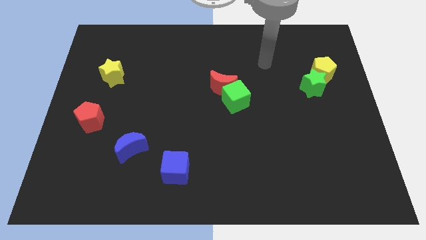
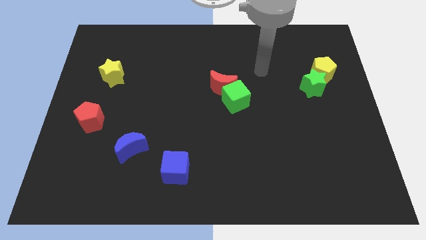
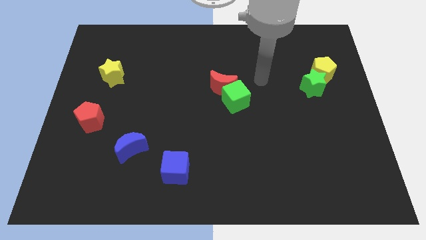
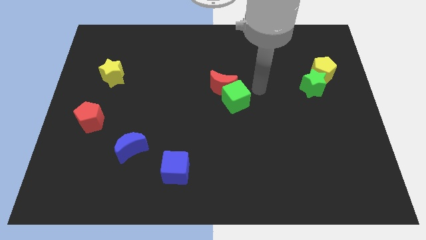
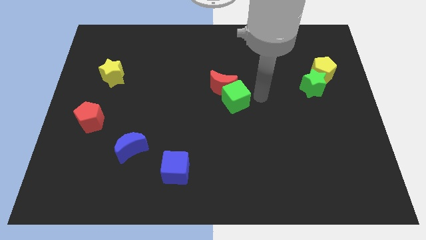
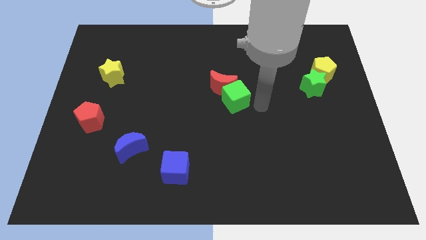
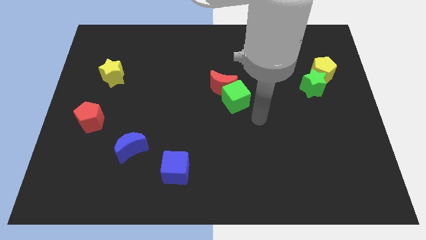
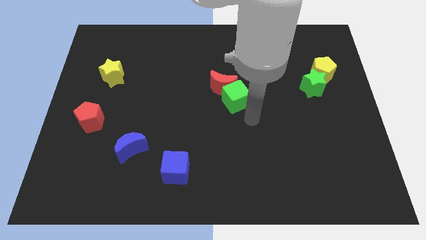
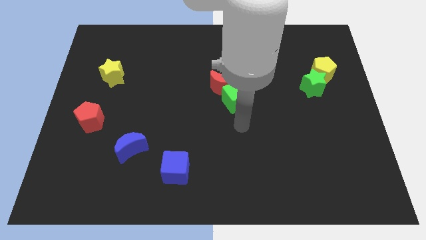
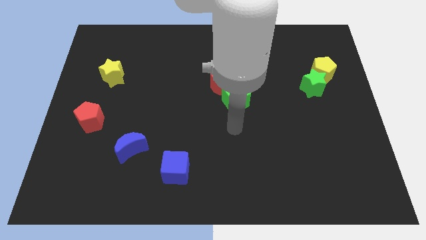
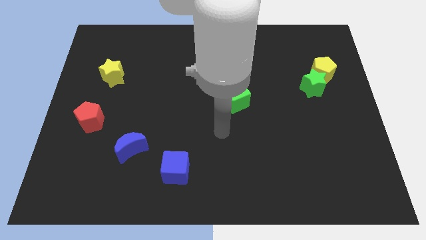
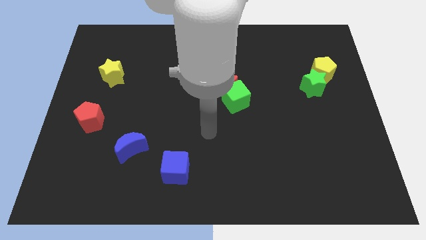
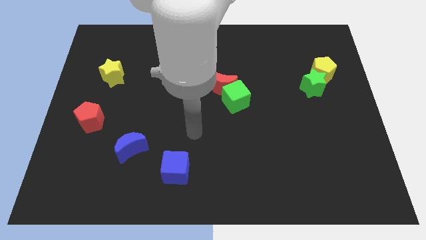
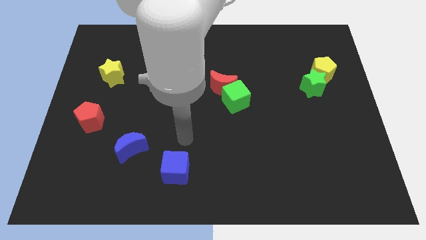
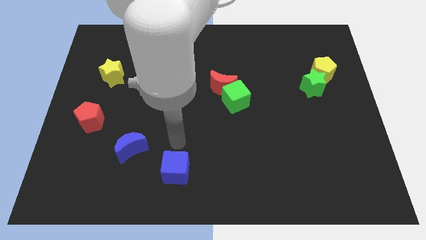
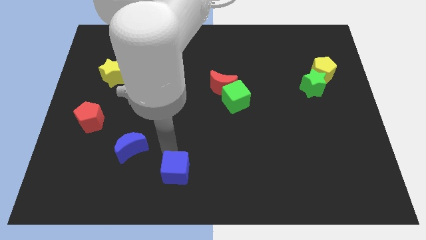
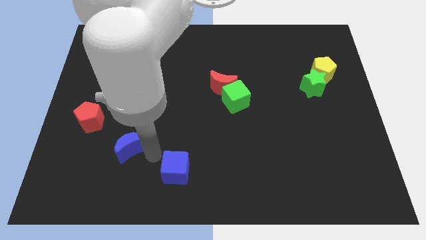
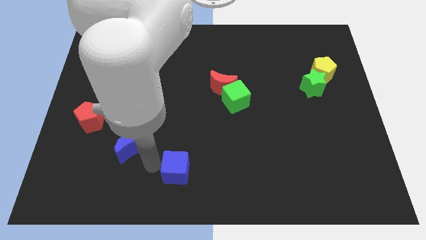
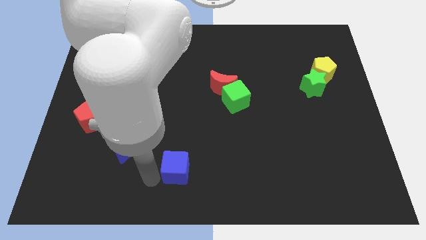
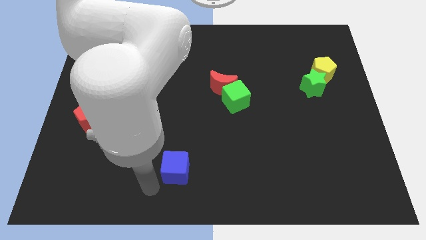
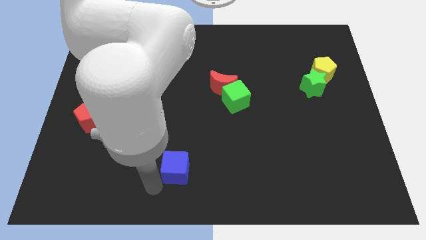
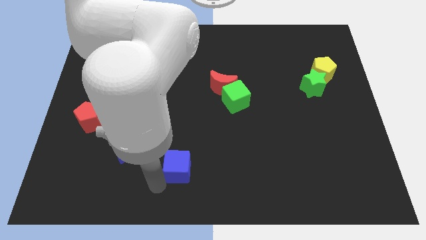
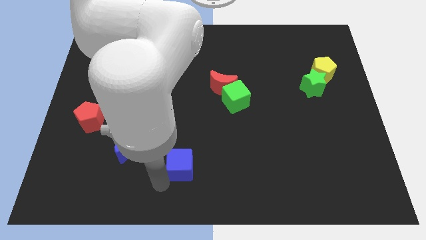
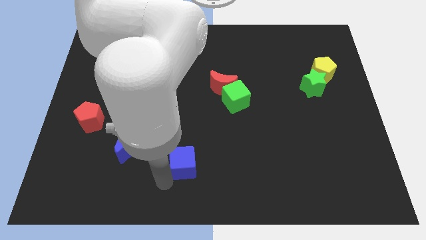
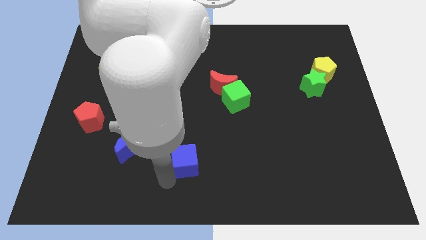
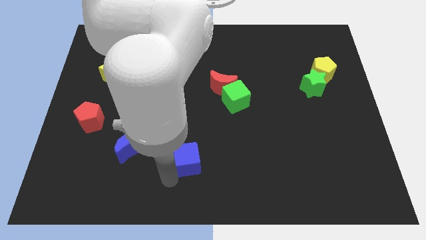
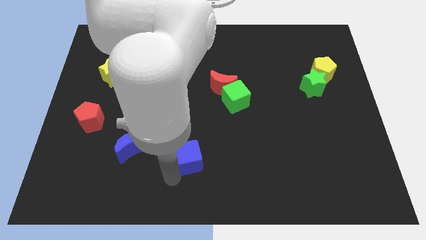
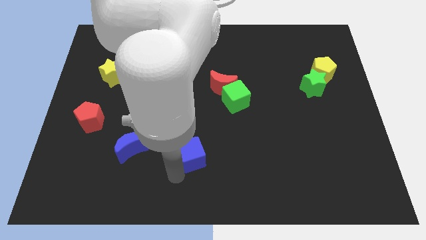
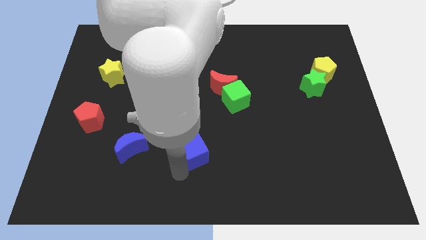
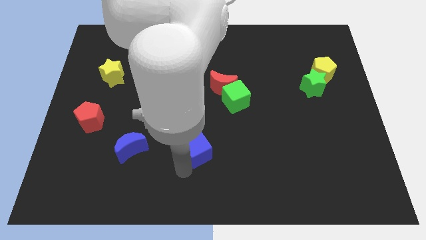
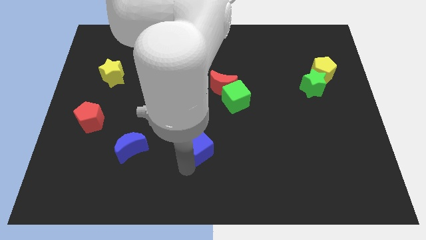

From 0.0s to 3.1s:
slightly move the blue cube diagonally up and right

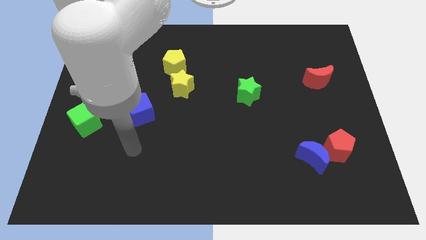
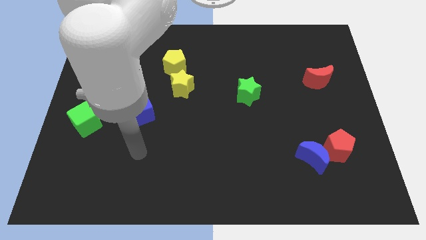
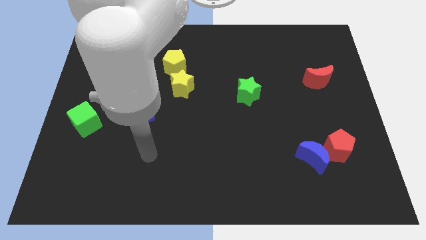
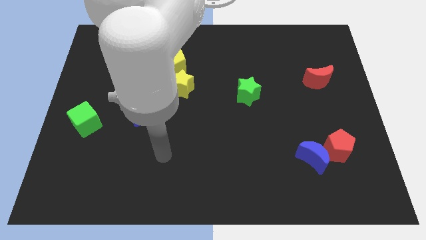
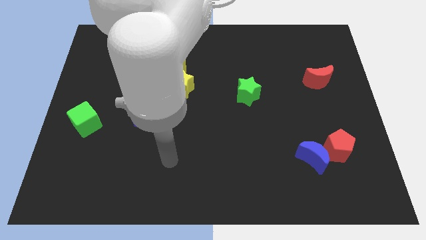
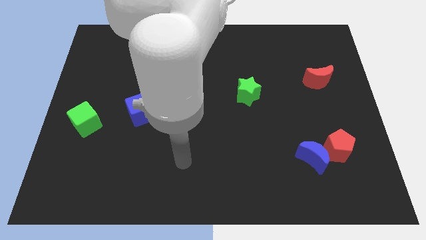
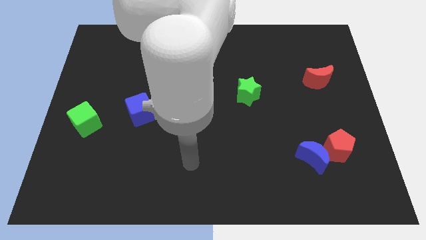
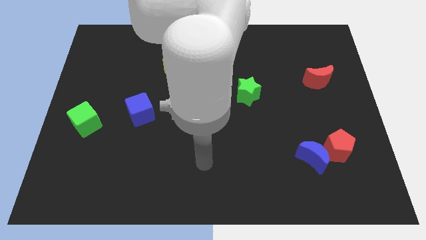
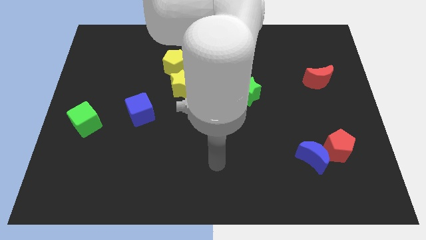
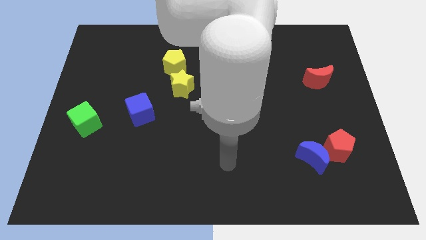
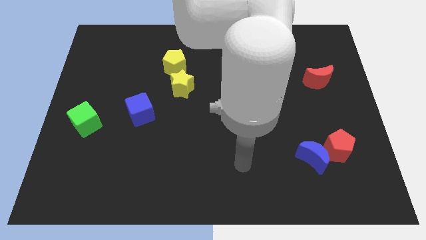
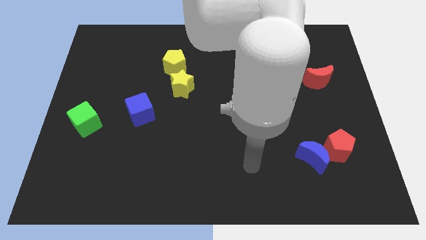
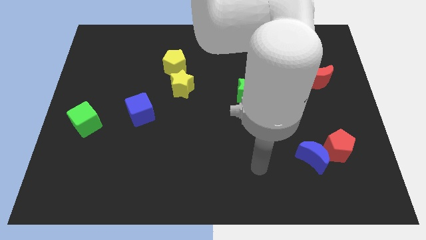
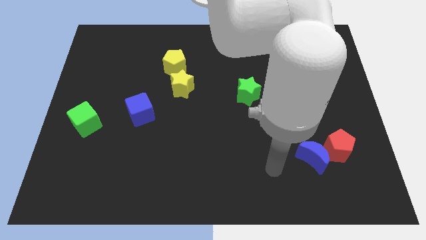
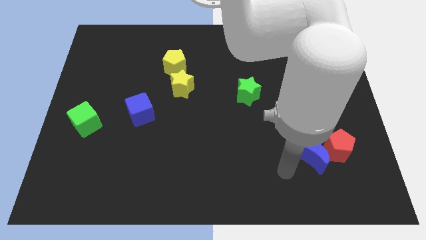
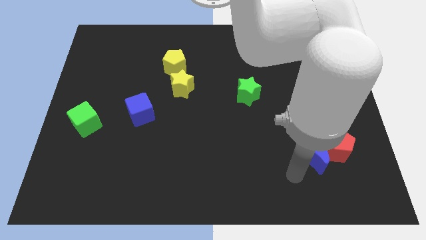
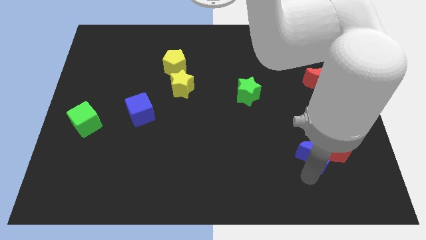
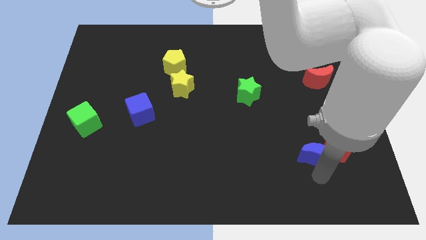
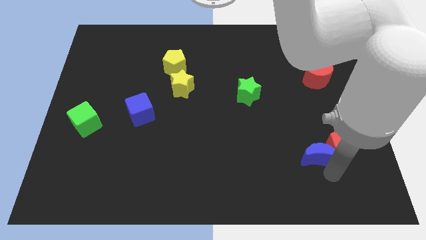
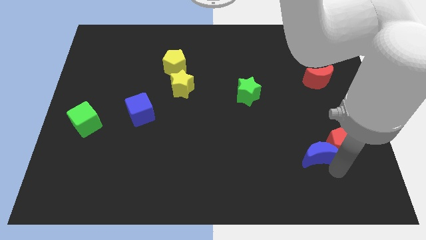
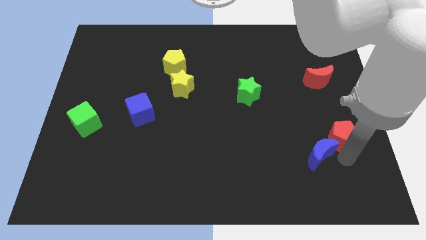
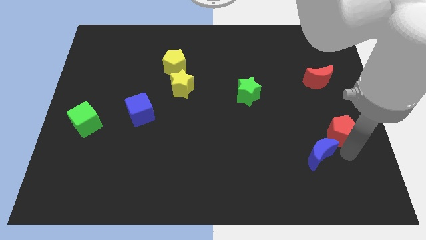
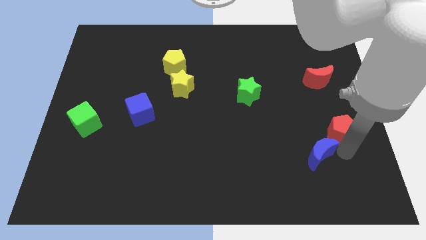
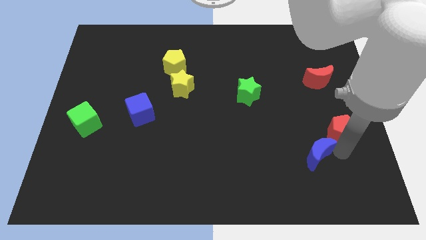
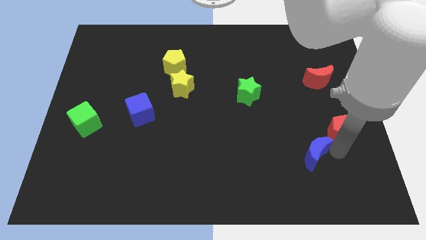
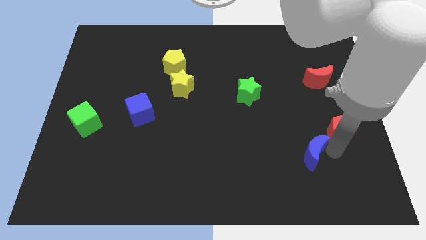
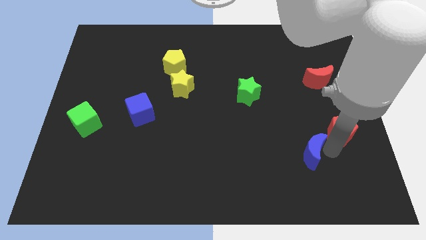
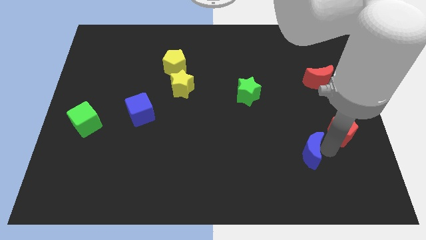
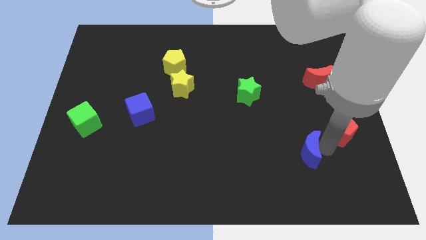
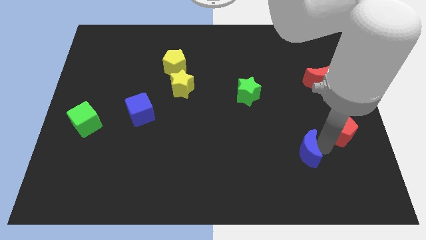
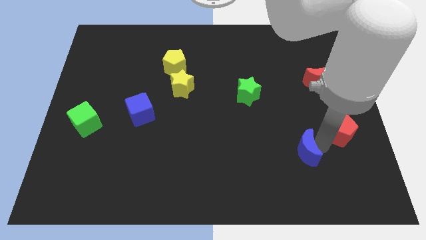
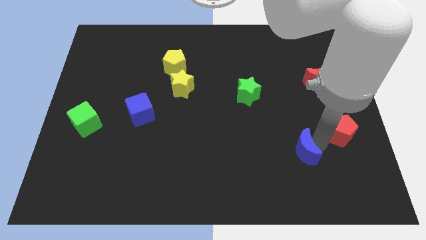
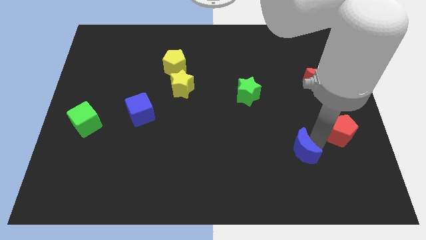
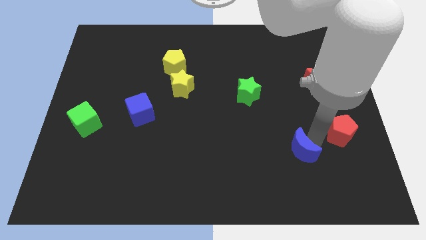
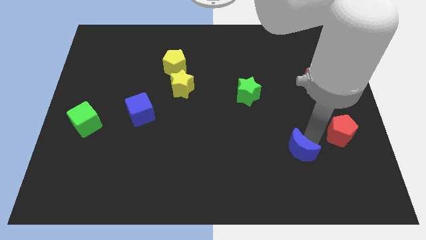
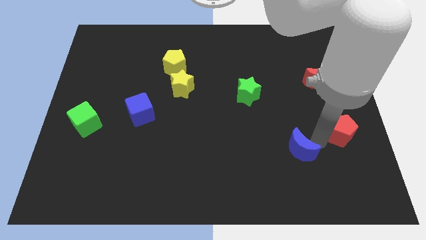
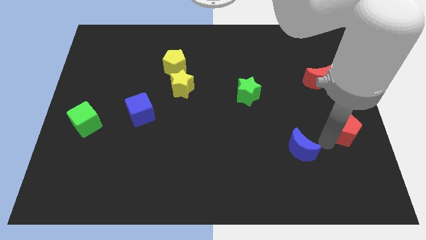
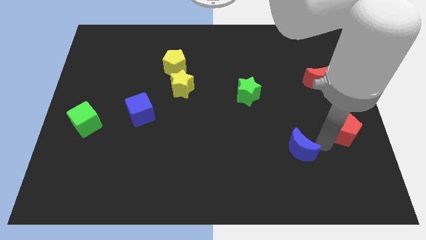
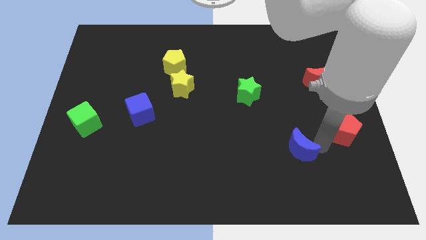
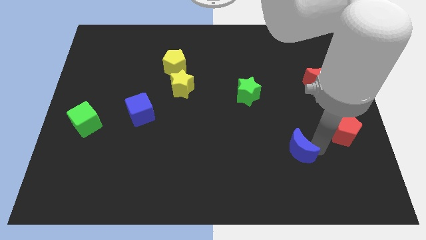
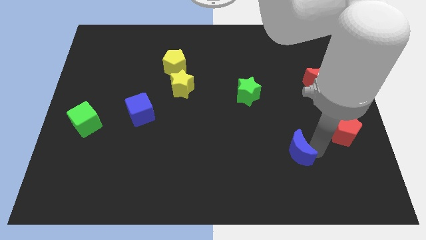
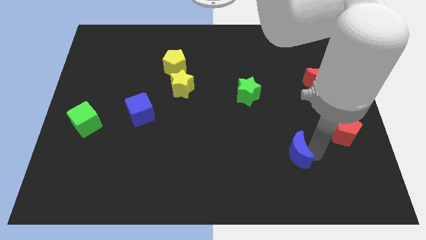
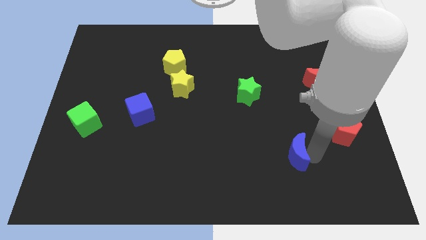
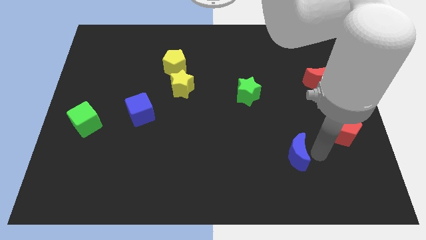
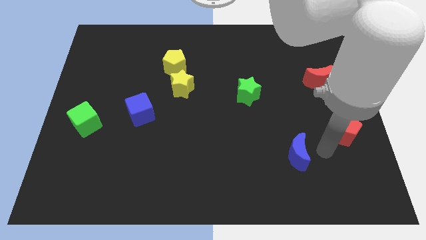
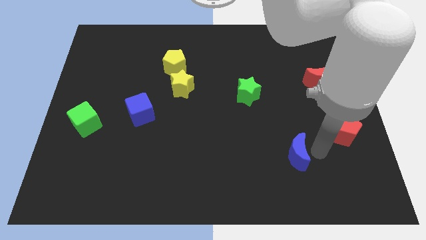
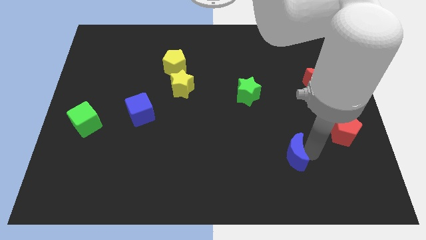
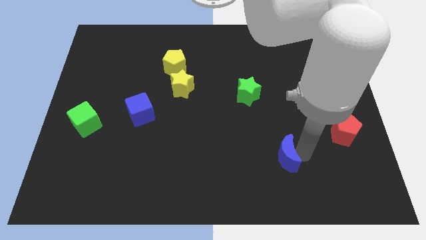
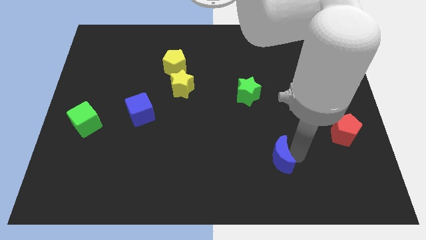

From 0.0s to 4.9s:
move the blue moon a little bit left
